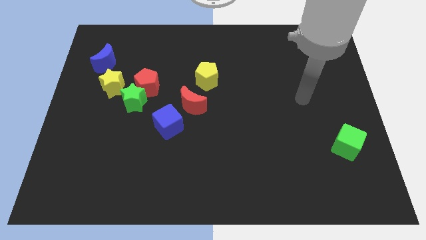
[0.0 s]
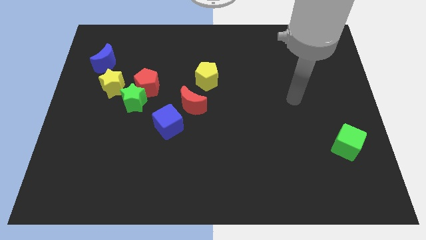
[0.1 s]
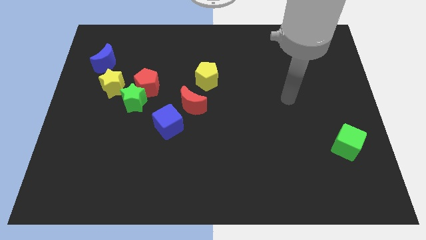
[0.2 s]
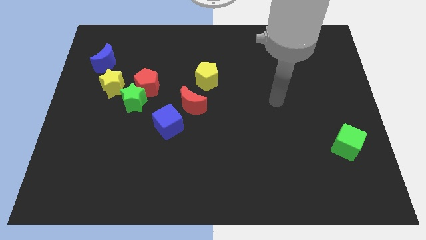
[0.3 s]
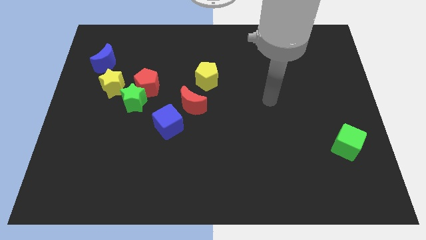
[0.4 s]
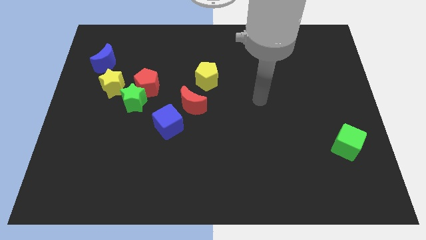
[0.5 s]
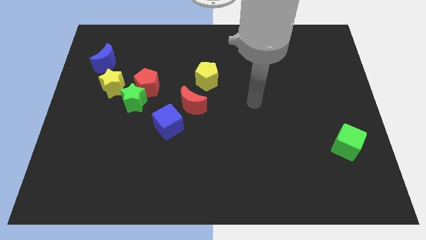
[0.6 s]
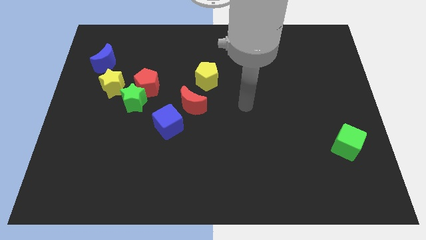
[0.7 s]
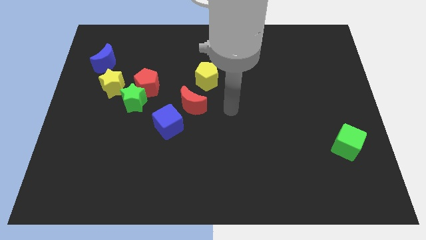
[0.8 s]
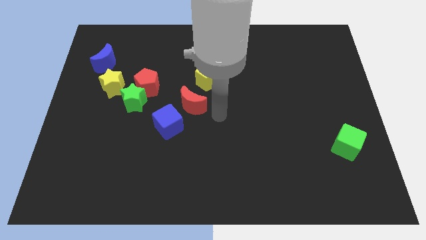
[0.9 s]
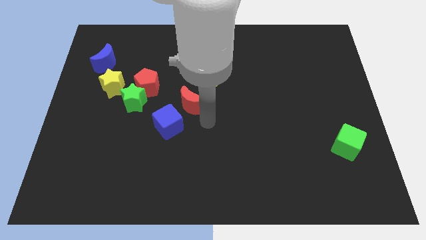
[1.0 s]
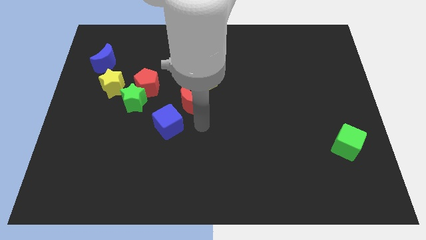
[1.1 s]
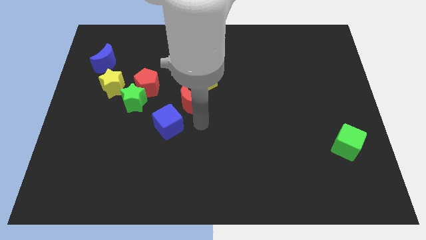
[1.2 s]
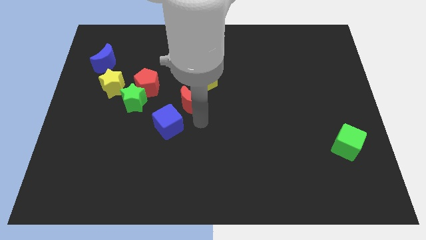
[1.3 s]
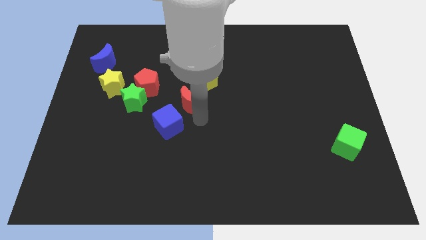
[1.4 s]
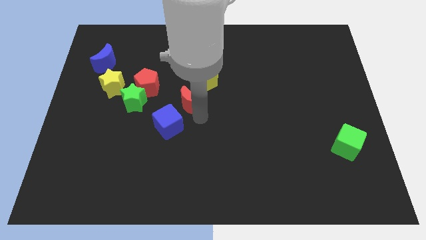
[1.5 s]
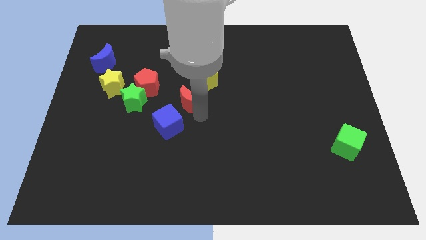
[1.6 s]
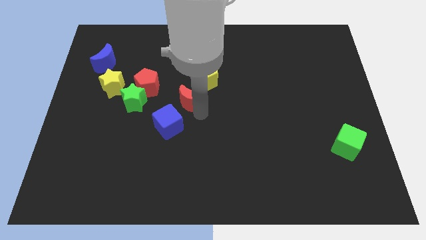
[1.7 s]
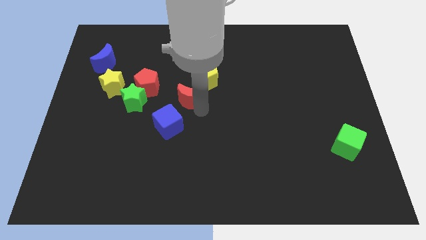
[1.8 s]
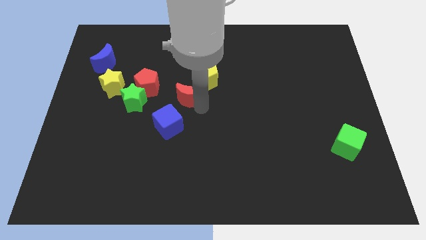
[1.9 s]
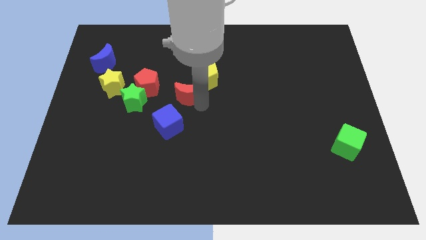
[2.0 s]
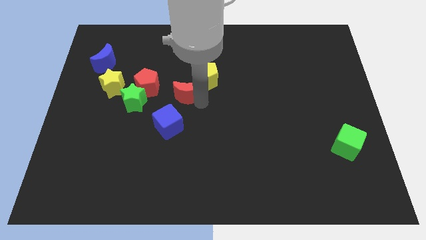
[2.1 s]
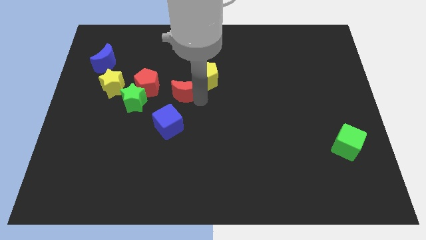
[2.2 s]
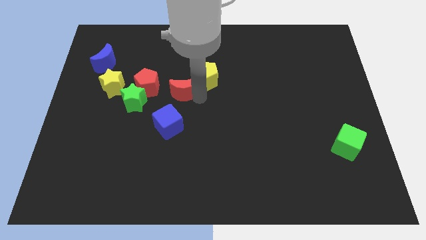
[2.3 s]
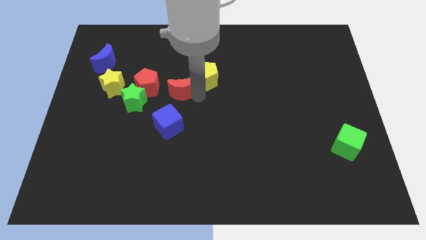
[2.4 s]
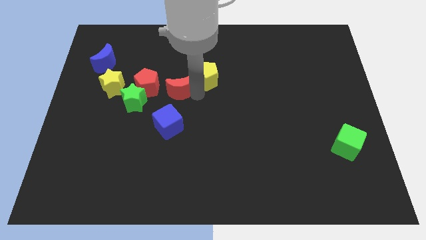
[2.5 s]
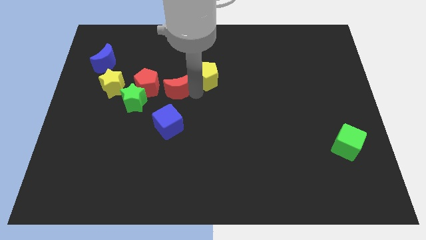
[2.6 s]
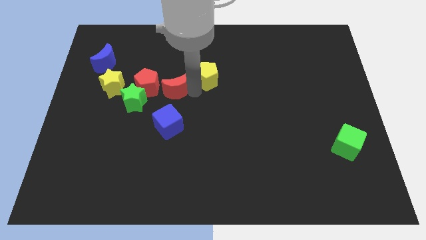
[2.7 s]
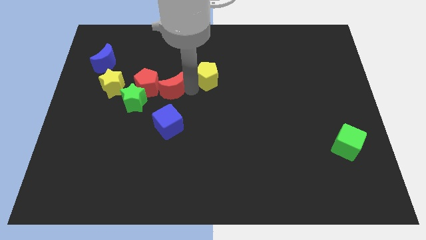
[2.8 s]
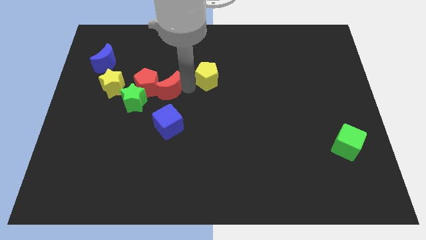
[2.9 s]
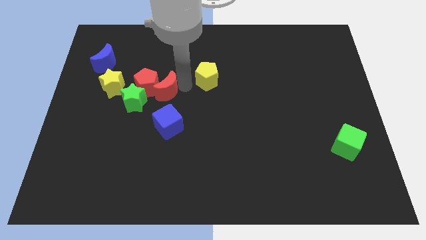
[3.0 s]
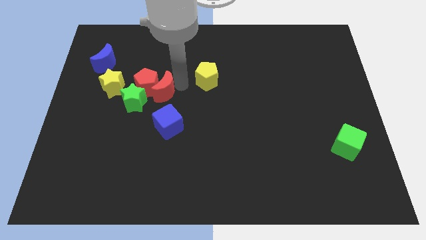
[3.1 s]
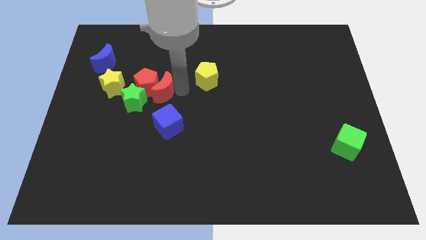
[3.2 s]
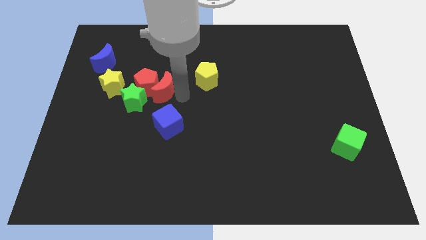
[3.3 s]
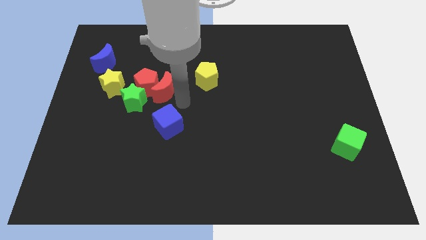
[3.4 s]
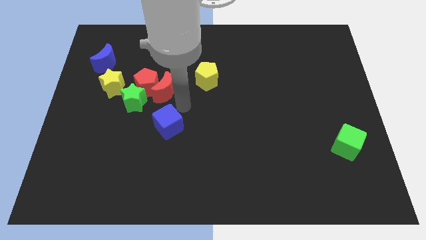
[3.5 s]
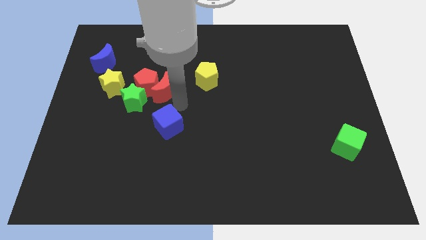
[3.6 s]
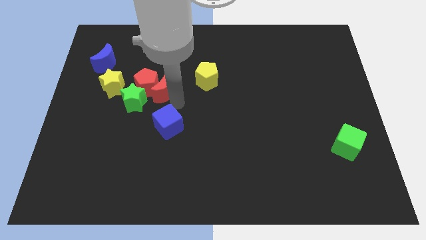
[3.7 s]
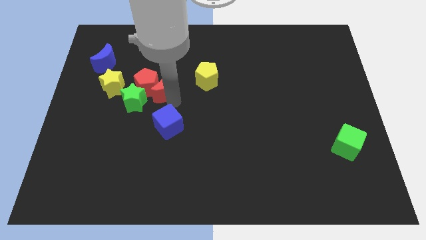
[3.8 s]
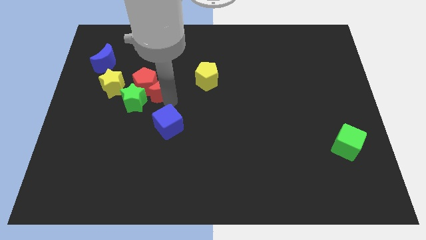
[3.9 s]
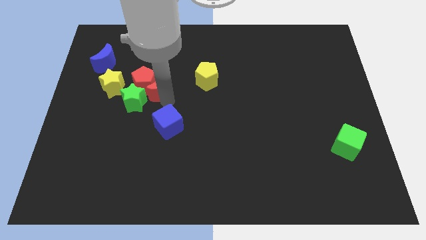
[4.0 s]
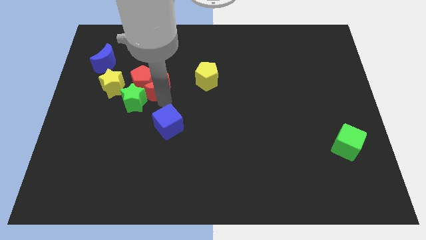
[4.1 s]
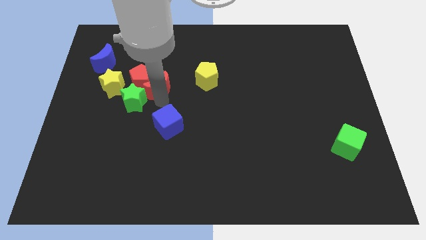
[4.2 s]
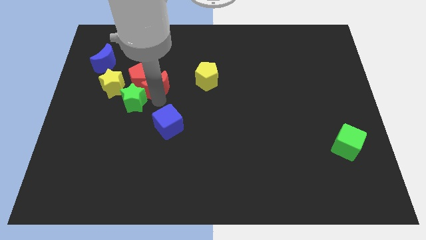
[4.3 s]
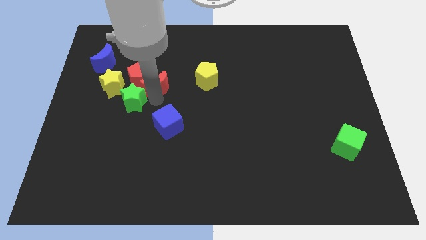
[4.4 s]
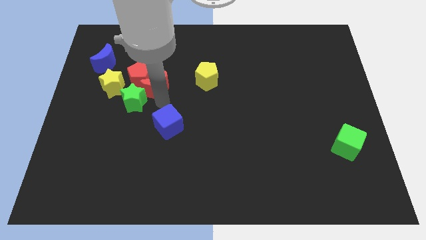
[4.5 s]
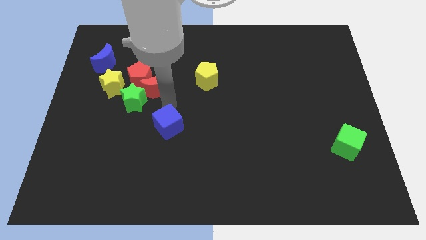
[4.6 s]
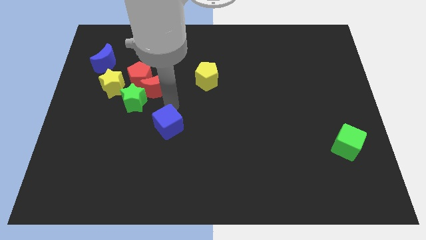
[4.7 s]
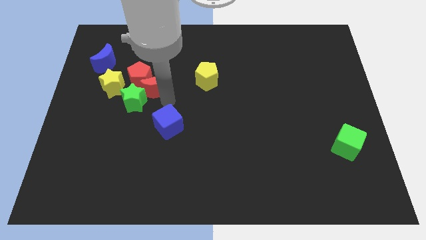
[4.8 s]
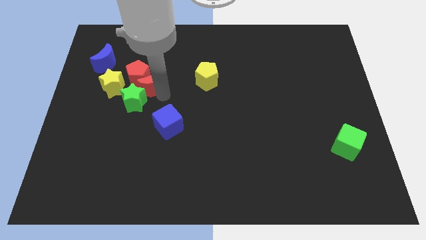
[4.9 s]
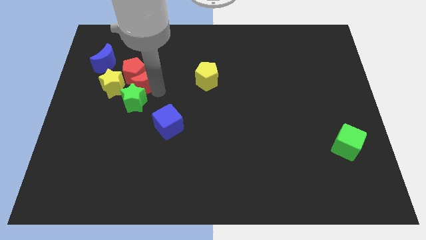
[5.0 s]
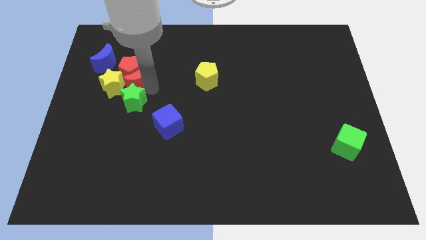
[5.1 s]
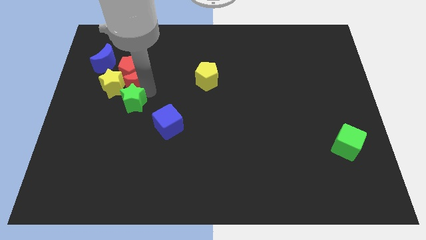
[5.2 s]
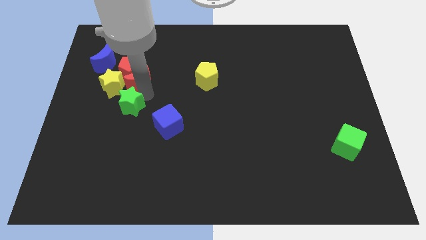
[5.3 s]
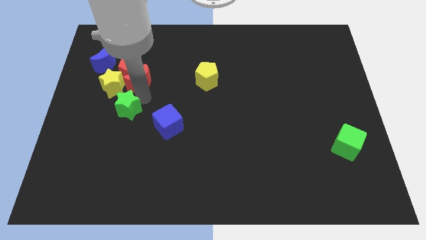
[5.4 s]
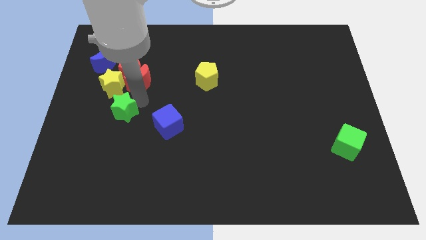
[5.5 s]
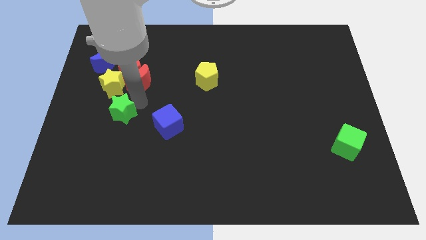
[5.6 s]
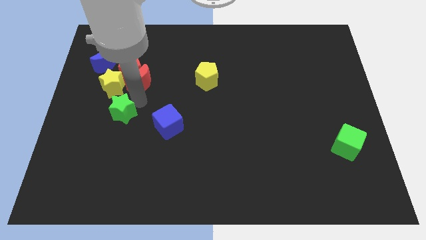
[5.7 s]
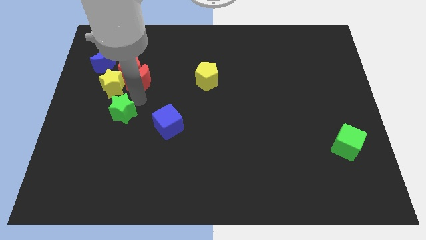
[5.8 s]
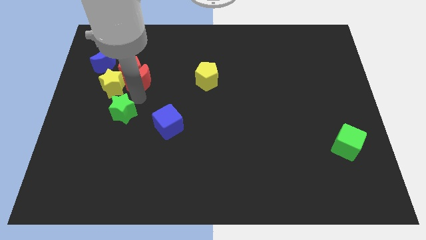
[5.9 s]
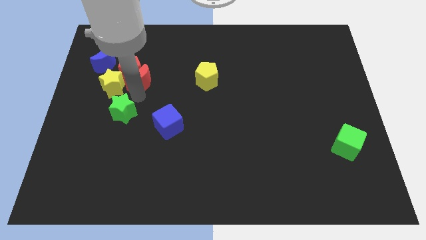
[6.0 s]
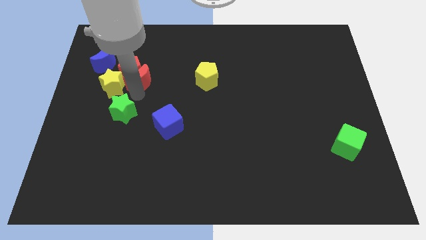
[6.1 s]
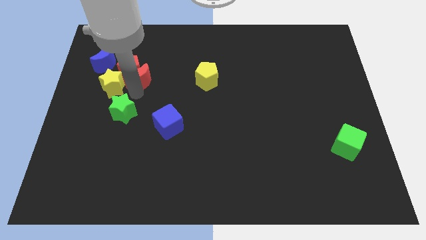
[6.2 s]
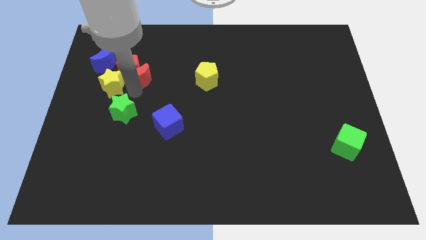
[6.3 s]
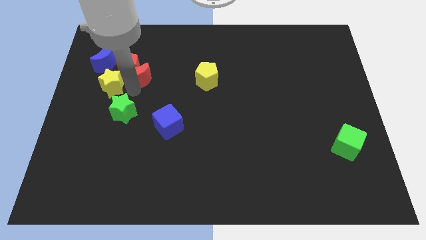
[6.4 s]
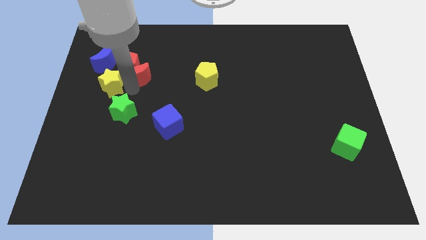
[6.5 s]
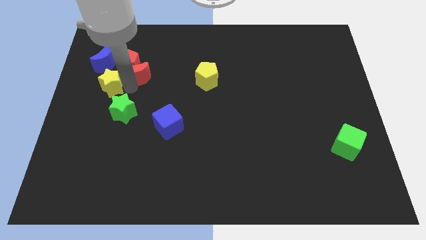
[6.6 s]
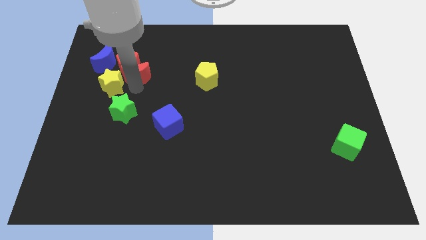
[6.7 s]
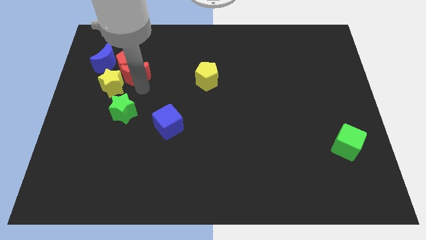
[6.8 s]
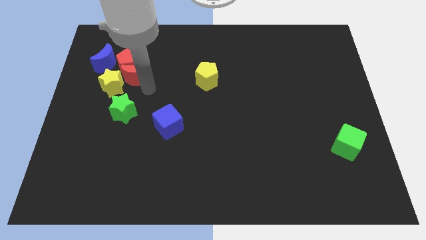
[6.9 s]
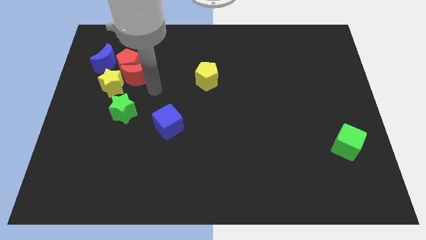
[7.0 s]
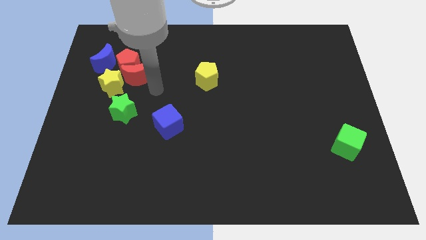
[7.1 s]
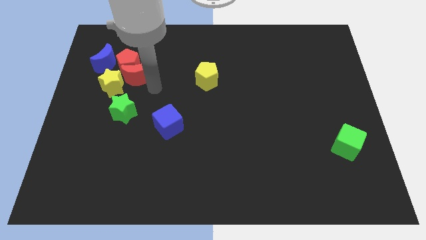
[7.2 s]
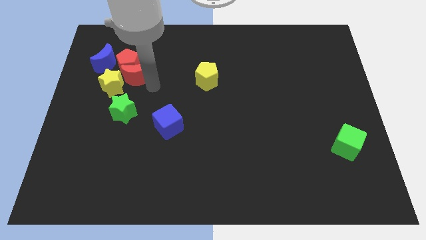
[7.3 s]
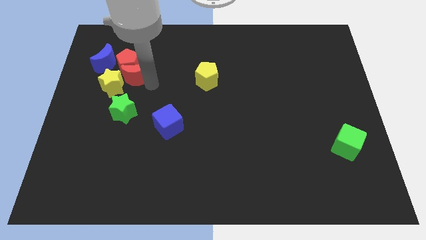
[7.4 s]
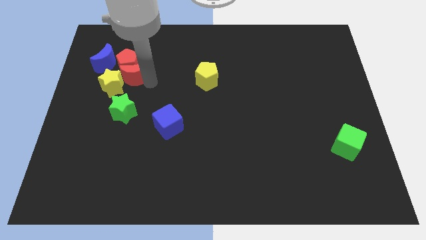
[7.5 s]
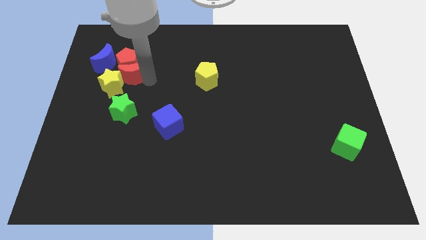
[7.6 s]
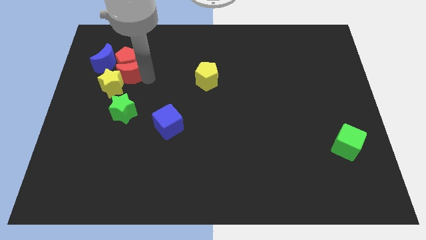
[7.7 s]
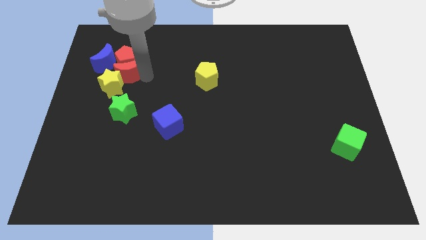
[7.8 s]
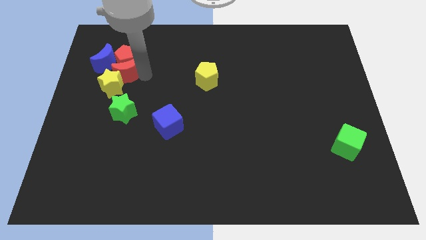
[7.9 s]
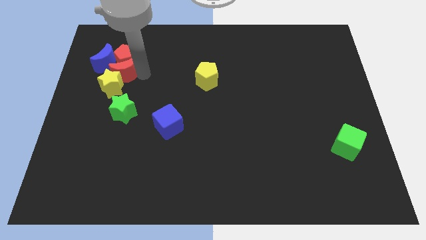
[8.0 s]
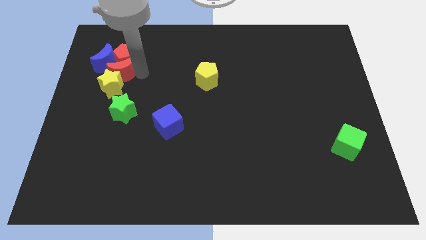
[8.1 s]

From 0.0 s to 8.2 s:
push the red moon towards the blue moon
